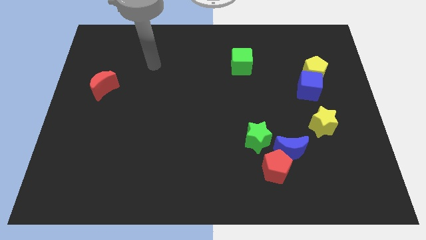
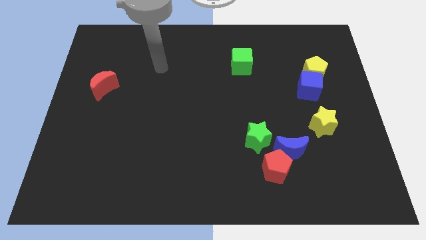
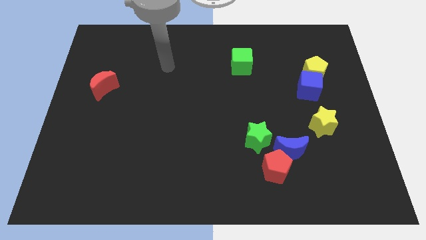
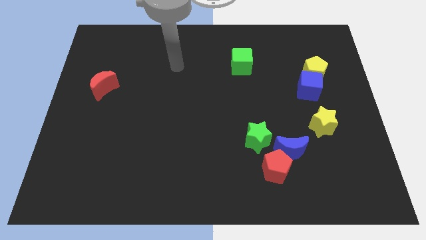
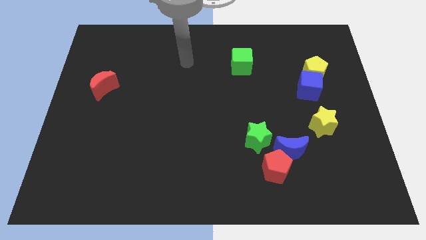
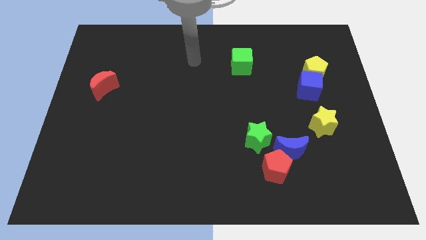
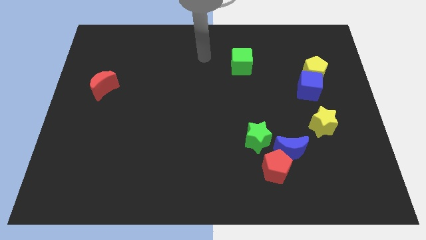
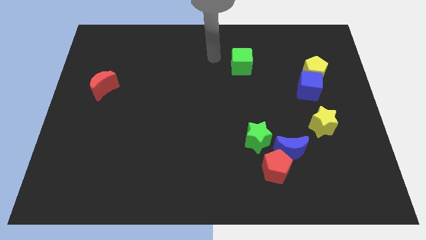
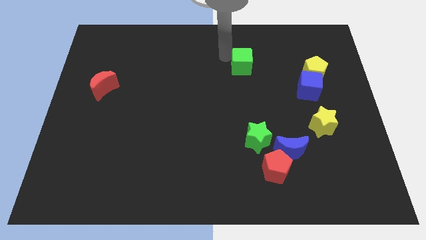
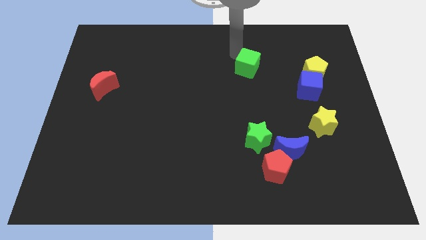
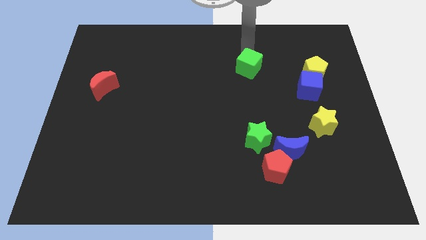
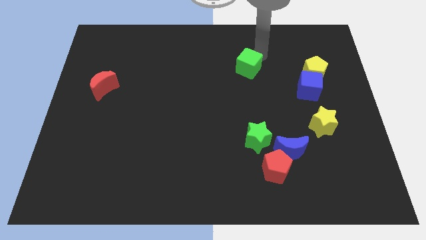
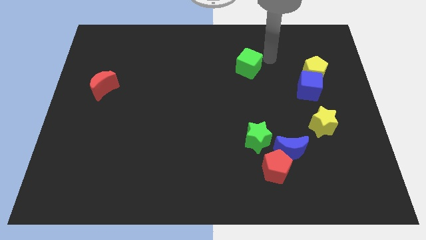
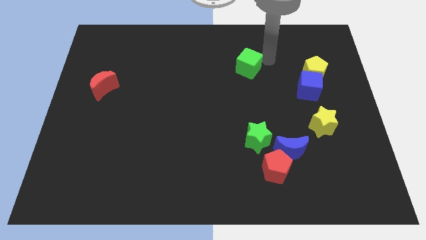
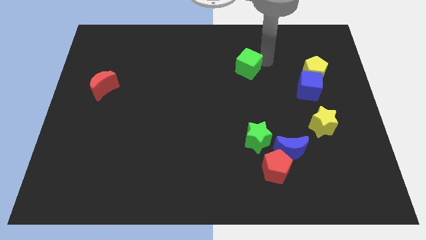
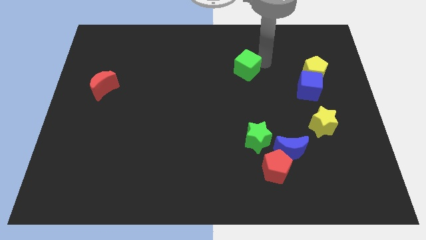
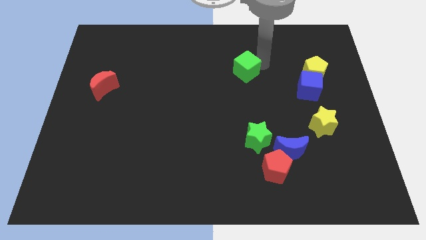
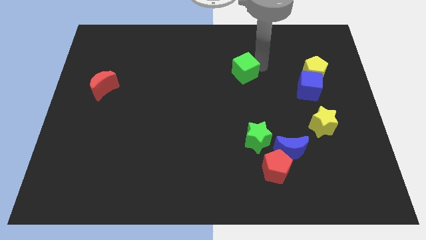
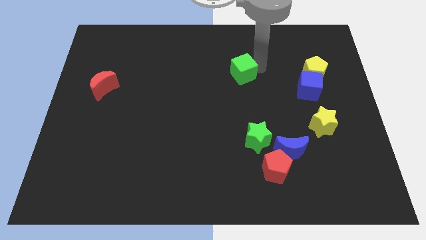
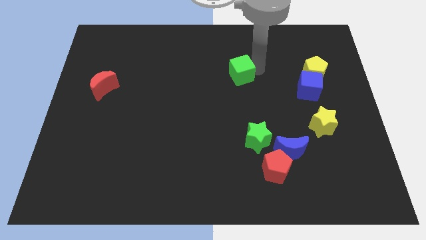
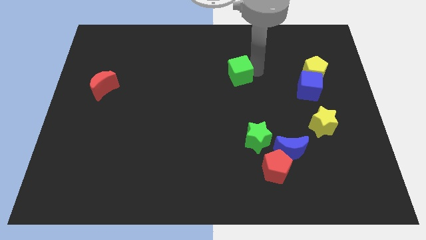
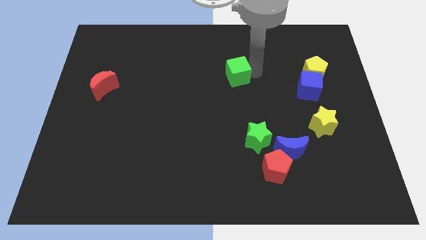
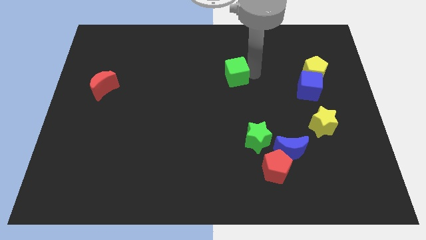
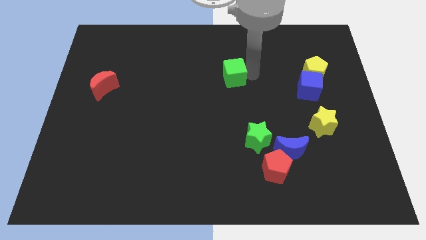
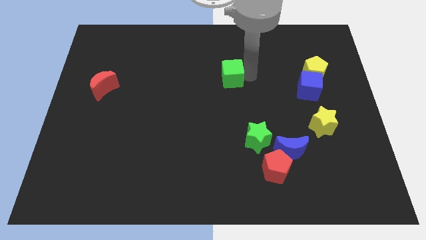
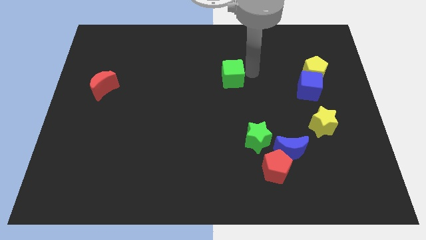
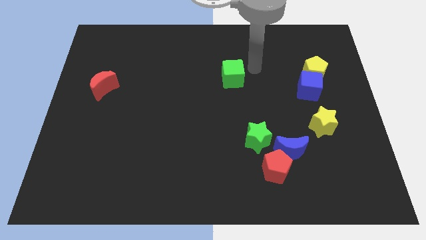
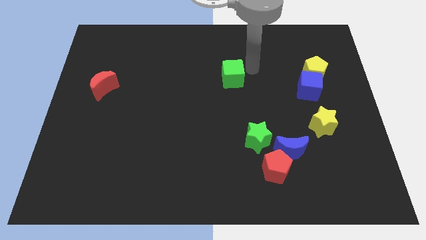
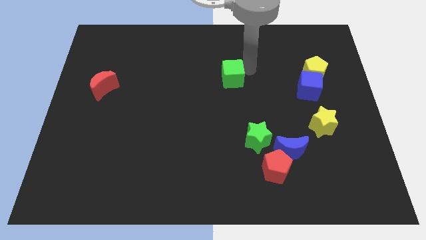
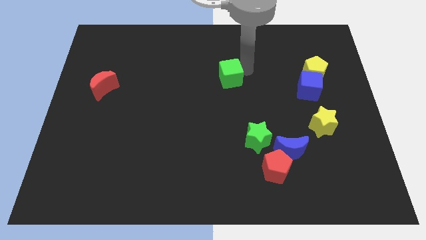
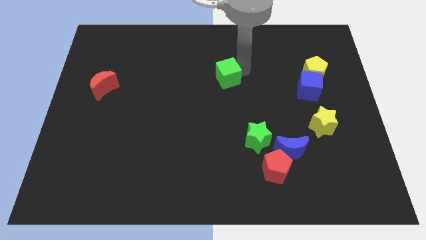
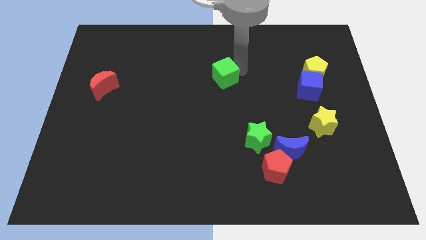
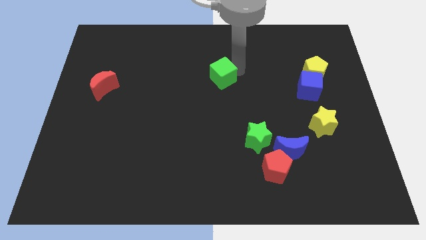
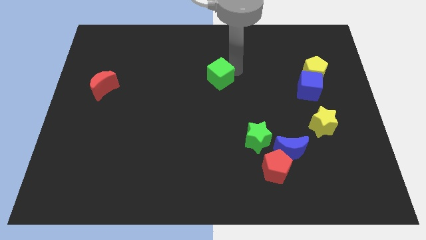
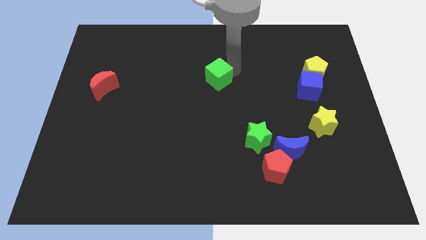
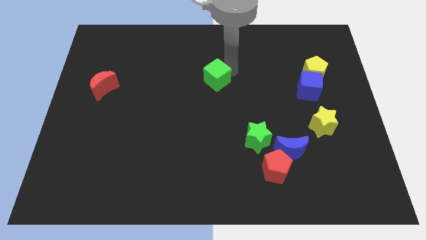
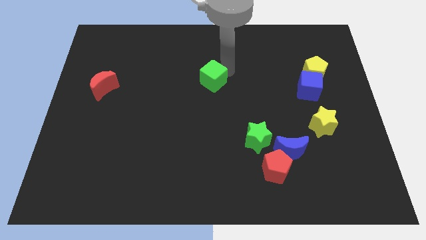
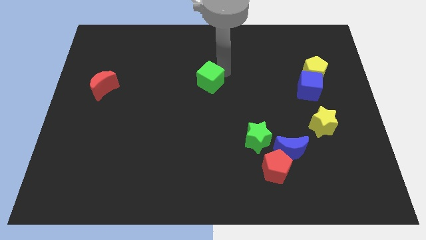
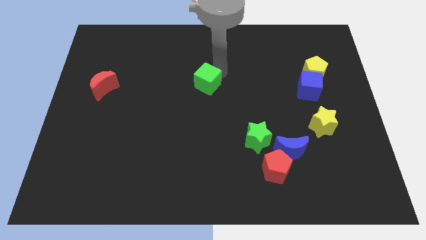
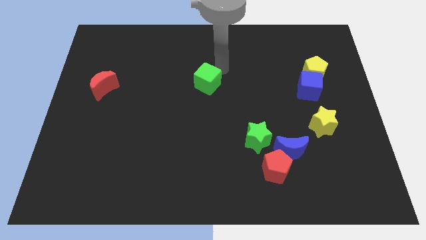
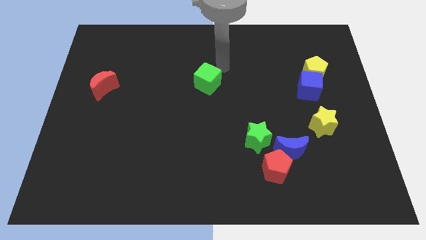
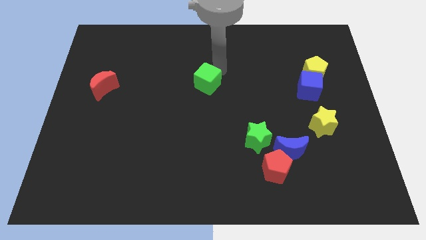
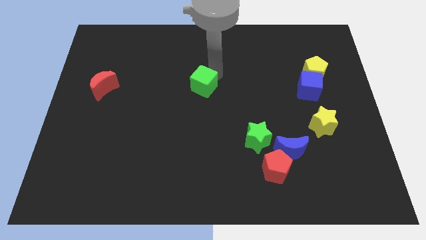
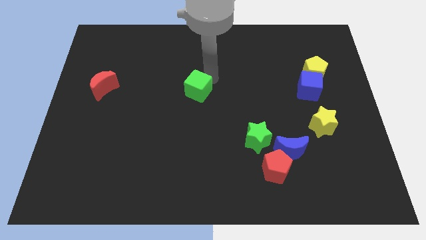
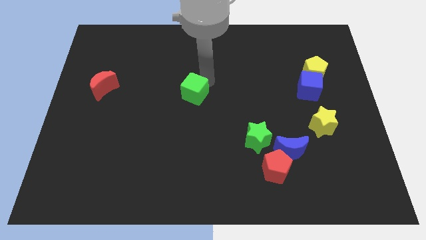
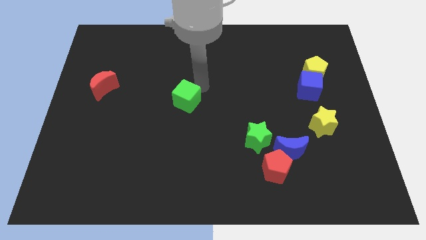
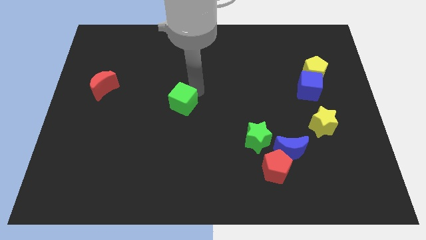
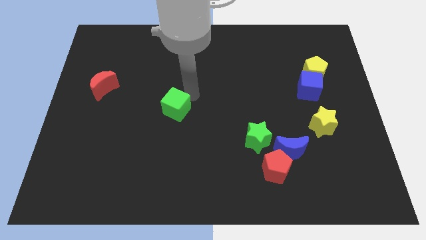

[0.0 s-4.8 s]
move the green cube down and left diagonally

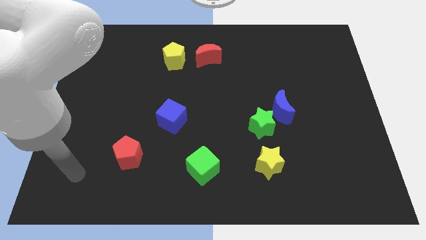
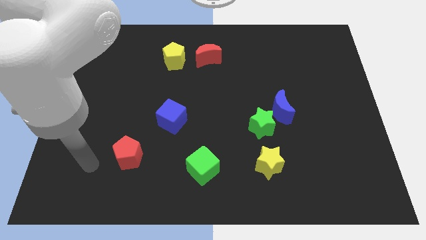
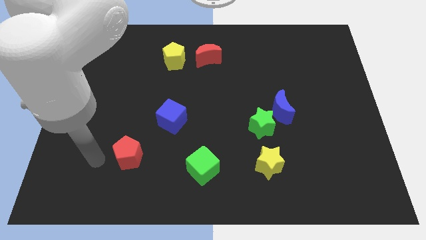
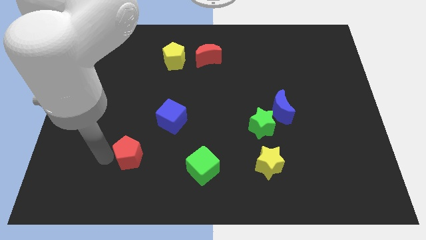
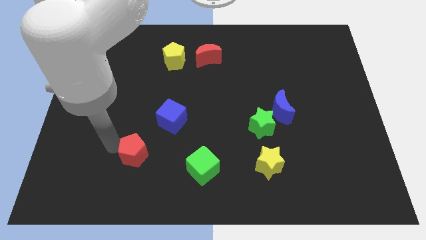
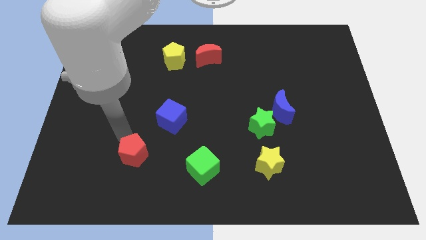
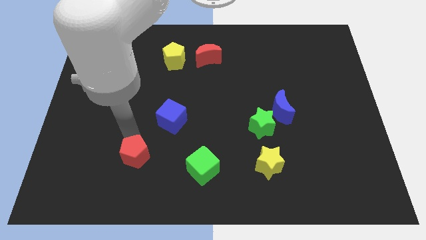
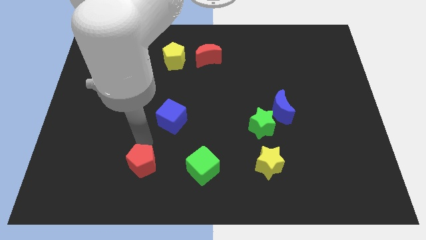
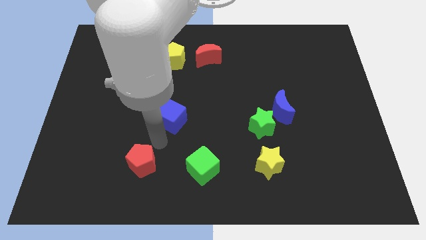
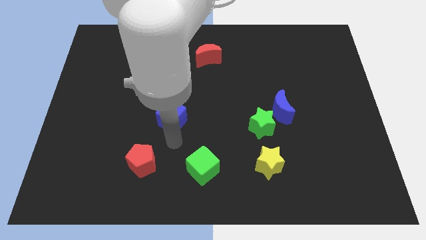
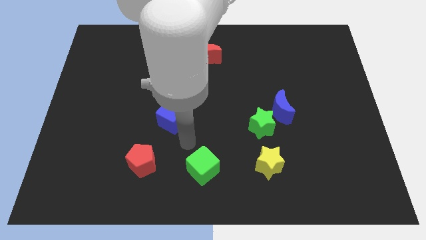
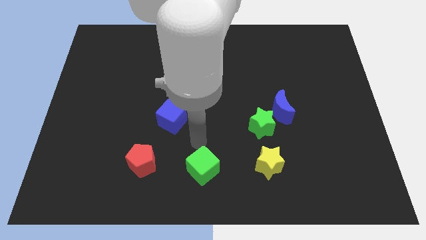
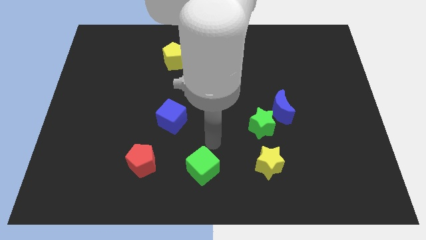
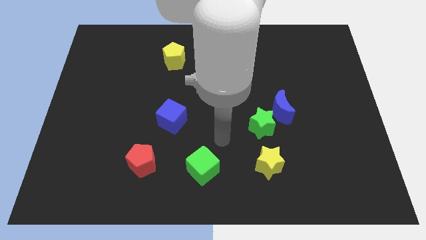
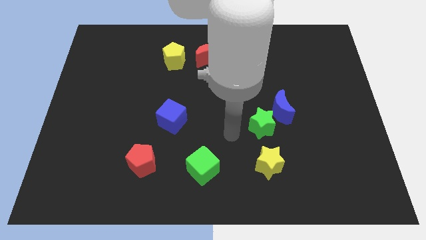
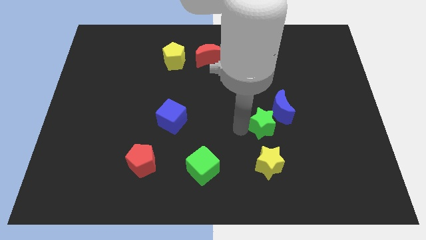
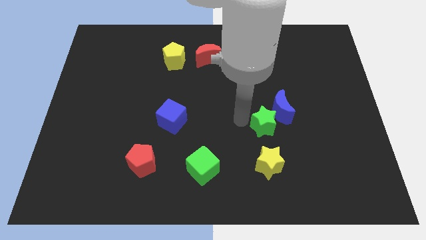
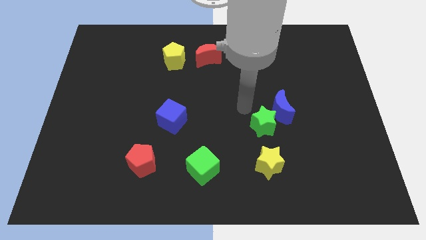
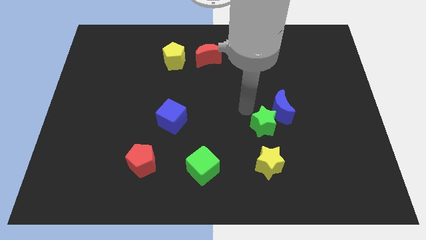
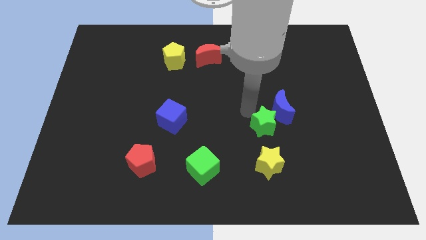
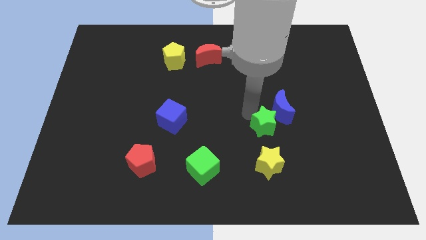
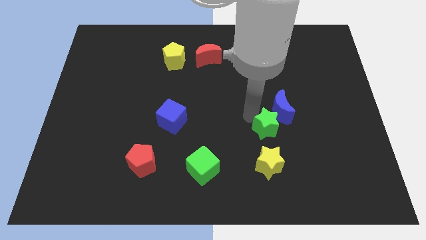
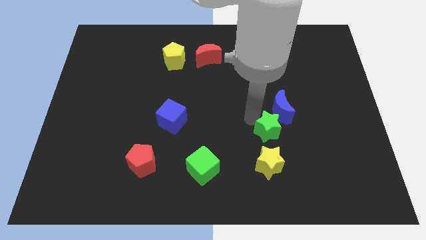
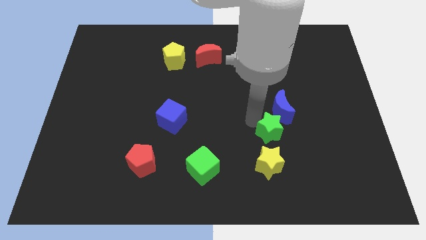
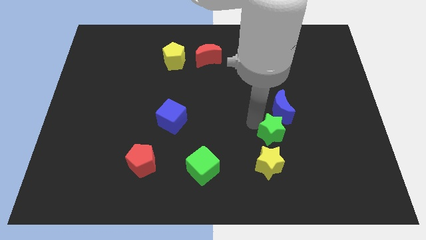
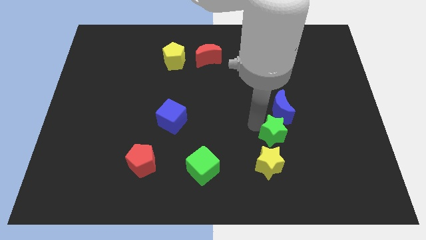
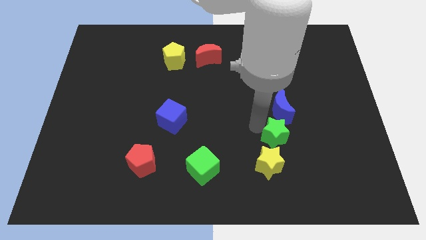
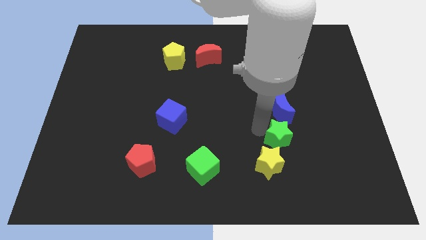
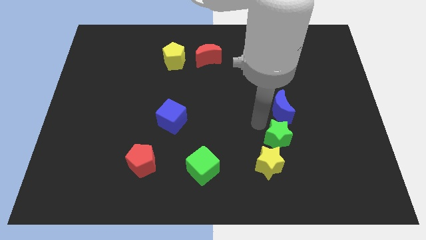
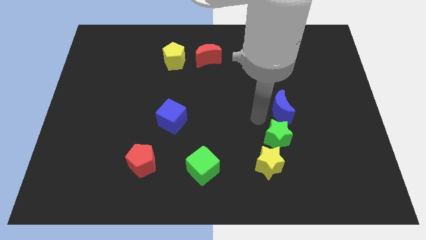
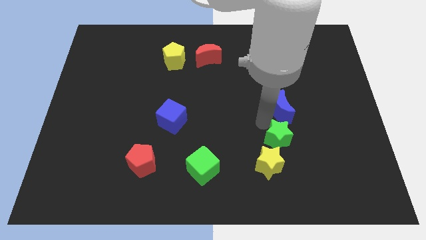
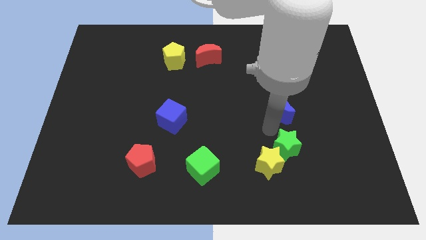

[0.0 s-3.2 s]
move the green star a bit down and right diagonally
